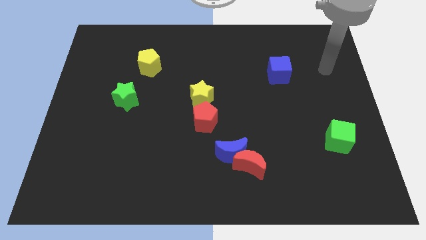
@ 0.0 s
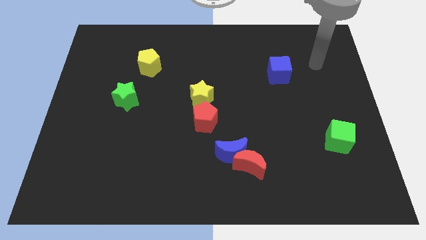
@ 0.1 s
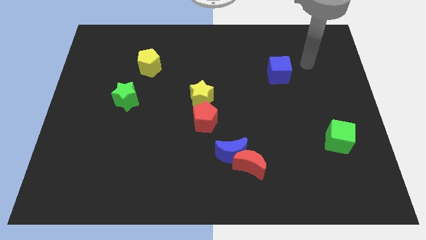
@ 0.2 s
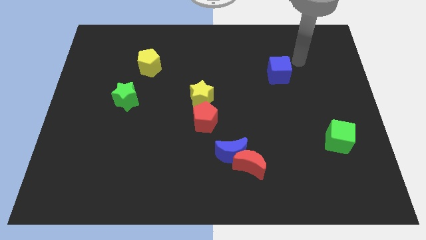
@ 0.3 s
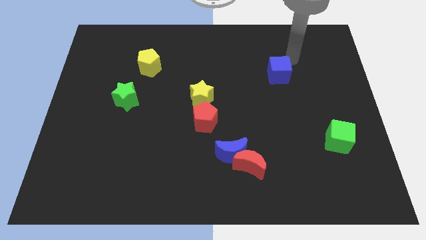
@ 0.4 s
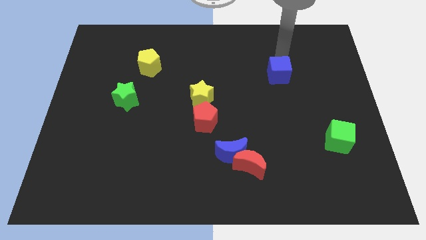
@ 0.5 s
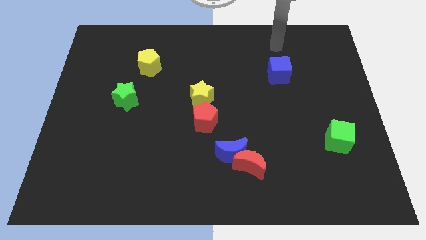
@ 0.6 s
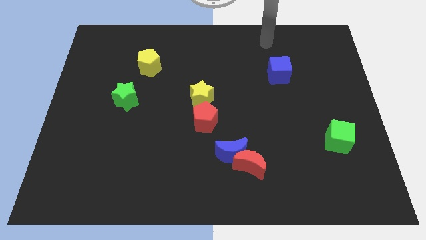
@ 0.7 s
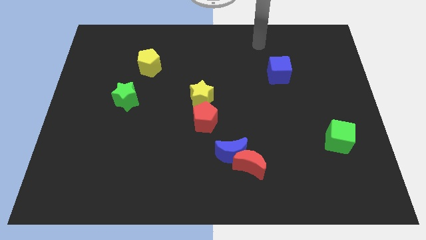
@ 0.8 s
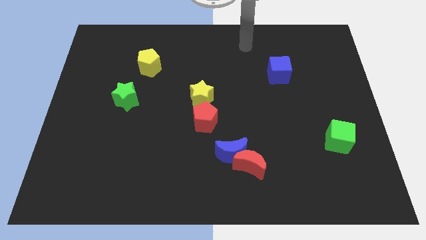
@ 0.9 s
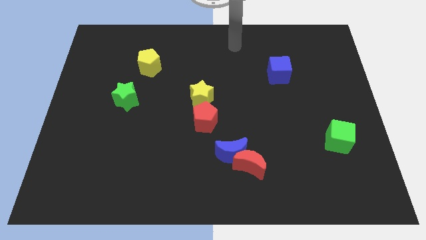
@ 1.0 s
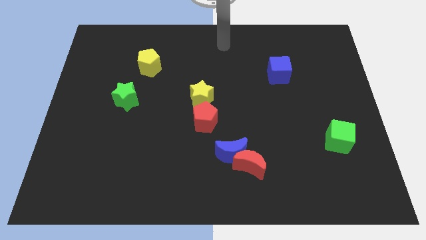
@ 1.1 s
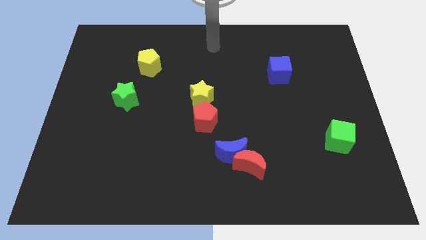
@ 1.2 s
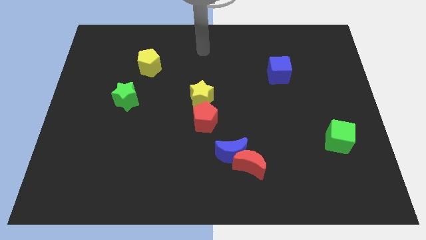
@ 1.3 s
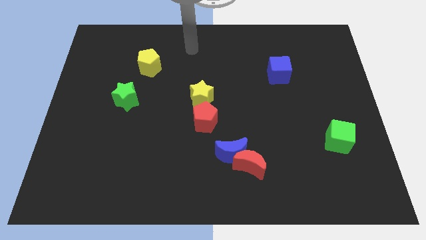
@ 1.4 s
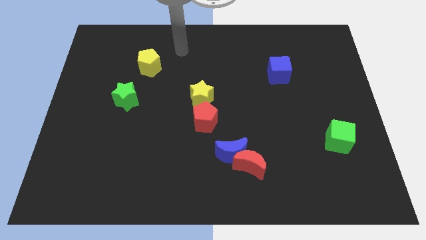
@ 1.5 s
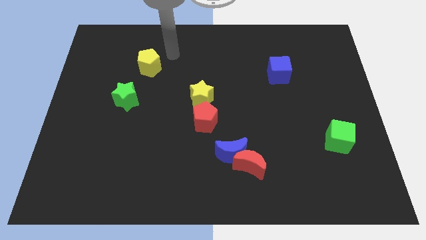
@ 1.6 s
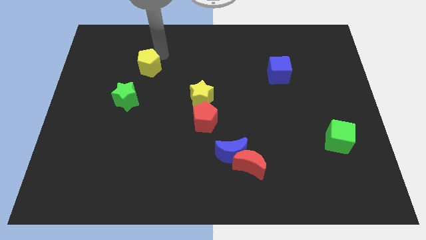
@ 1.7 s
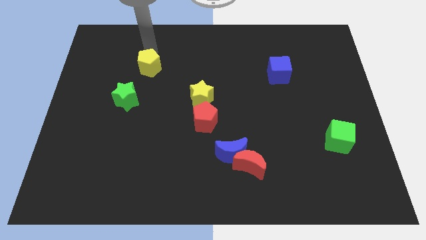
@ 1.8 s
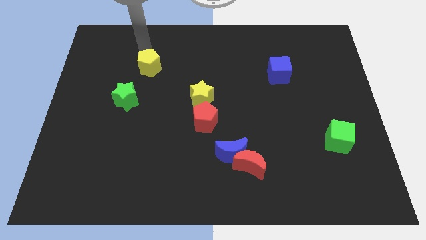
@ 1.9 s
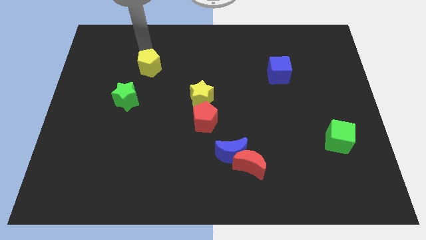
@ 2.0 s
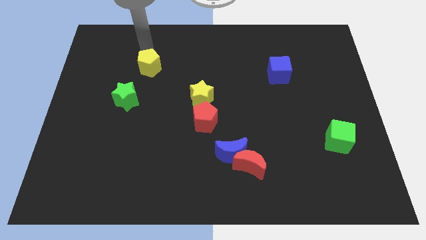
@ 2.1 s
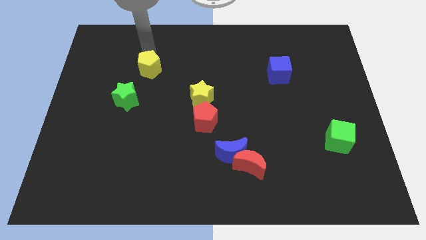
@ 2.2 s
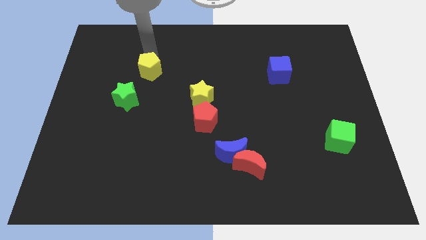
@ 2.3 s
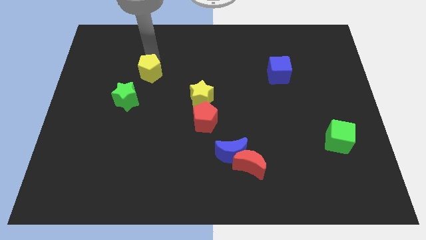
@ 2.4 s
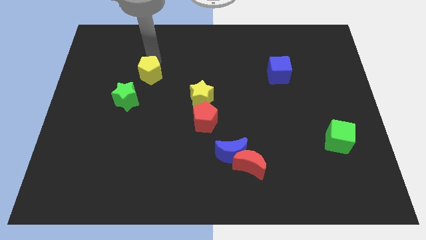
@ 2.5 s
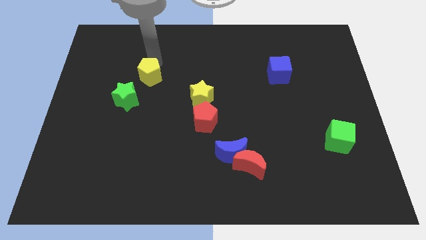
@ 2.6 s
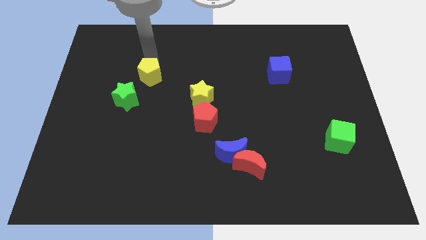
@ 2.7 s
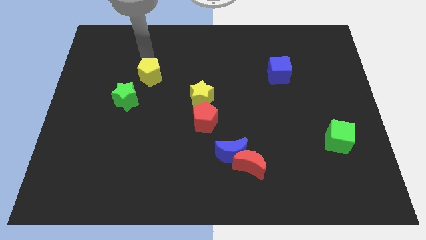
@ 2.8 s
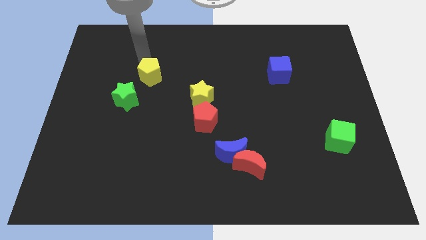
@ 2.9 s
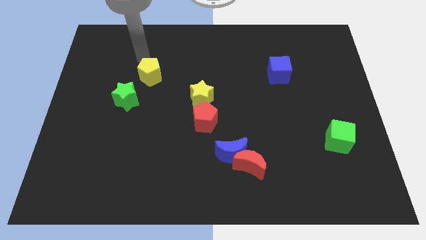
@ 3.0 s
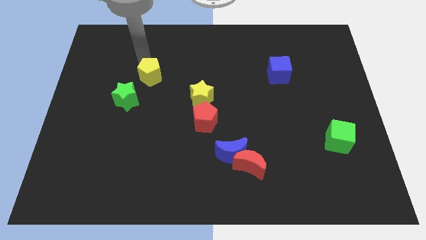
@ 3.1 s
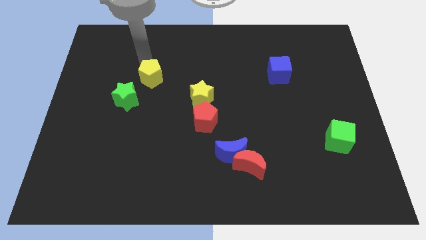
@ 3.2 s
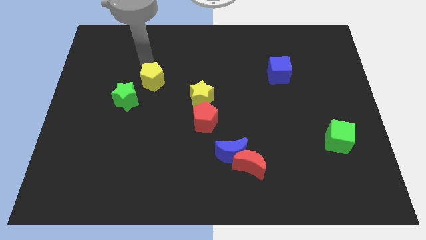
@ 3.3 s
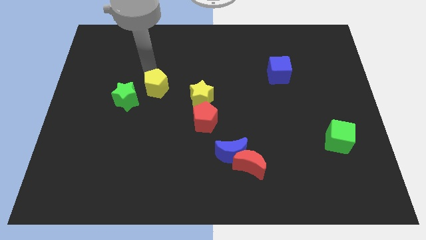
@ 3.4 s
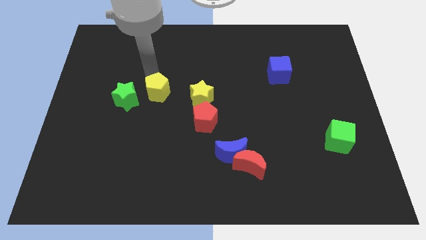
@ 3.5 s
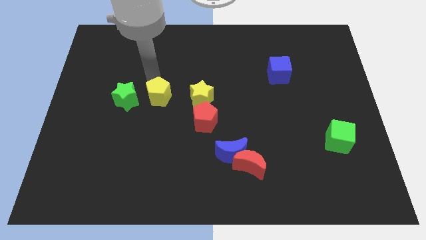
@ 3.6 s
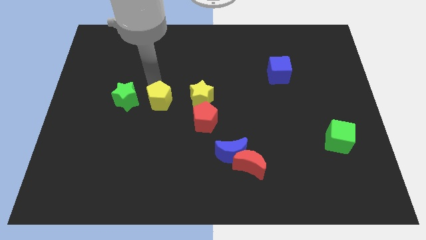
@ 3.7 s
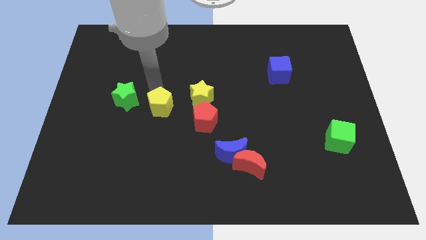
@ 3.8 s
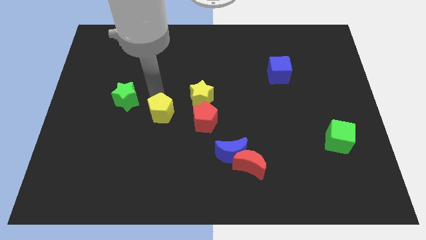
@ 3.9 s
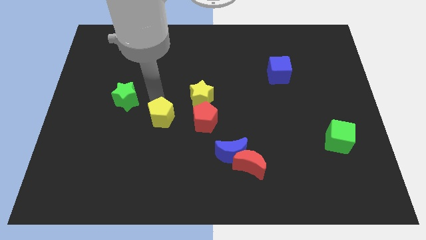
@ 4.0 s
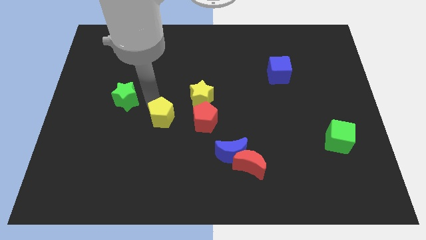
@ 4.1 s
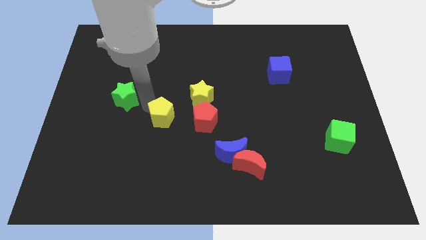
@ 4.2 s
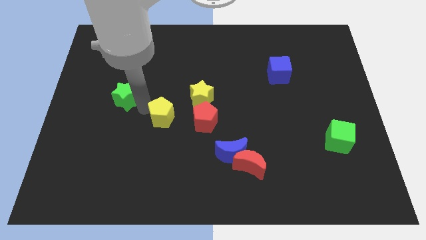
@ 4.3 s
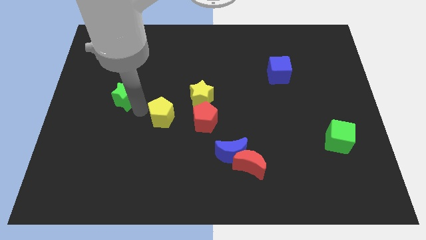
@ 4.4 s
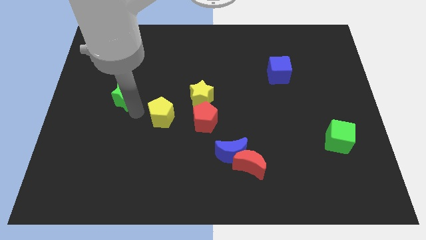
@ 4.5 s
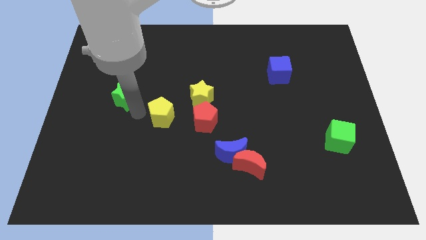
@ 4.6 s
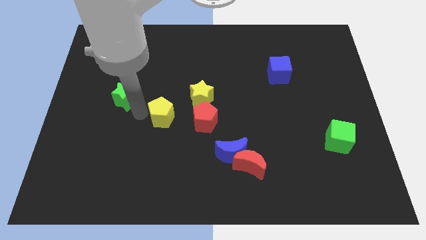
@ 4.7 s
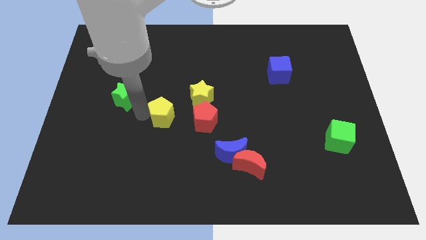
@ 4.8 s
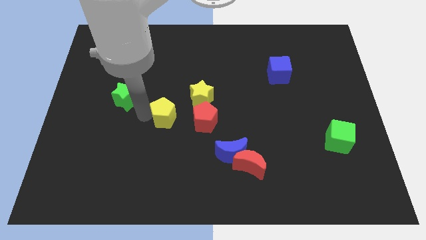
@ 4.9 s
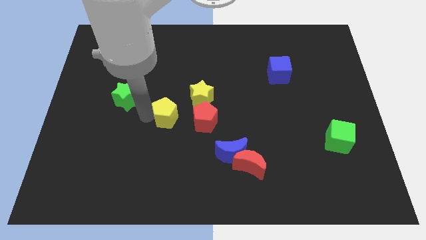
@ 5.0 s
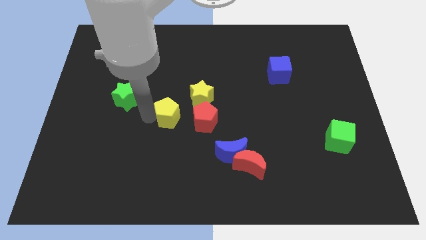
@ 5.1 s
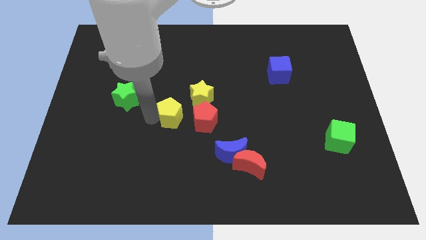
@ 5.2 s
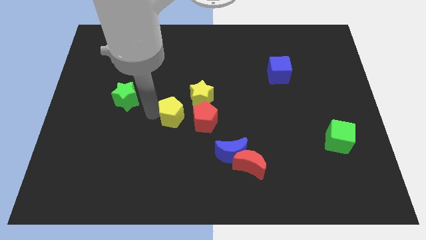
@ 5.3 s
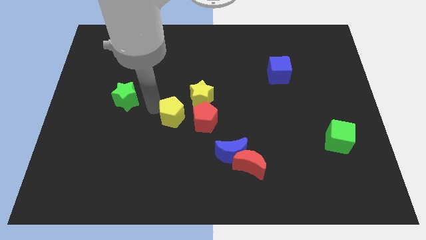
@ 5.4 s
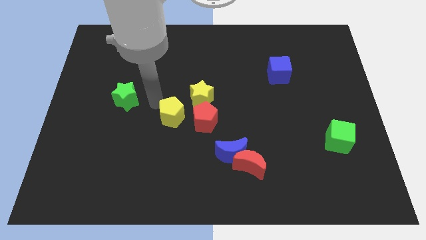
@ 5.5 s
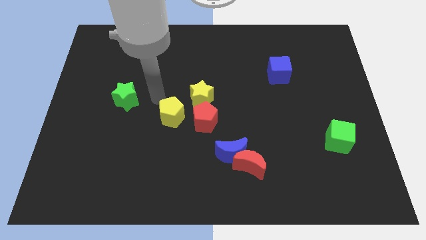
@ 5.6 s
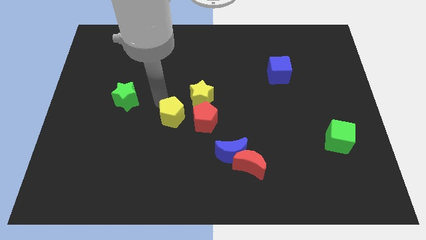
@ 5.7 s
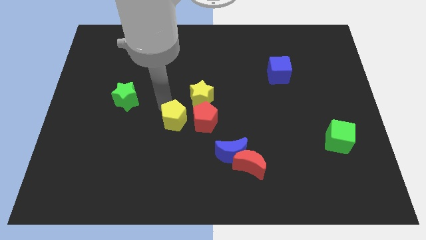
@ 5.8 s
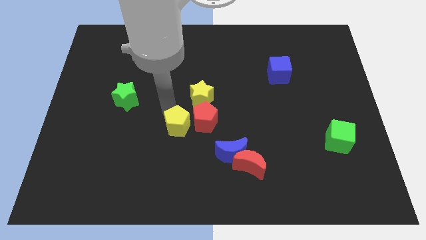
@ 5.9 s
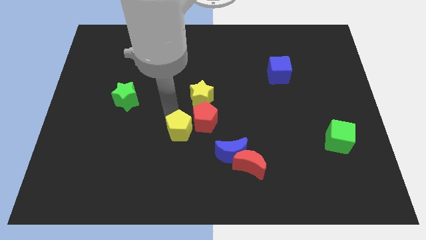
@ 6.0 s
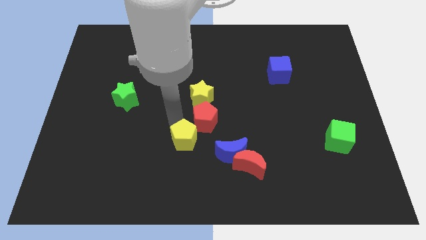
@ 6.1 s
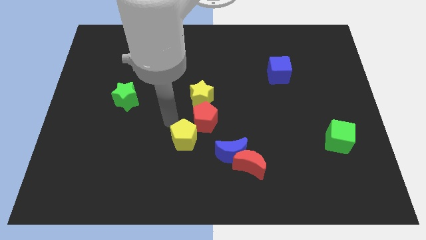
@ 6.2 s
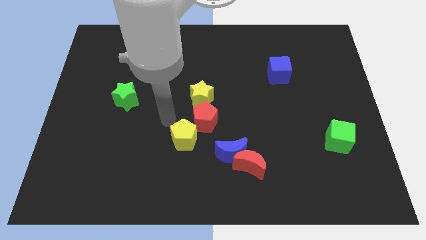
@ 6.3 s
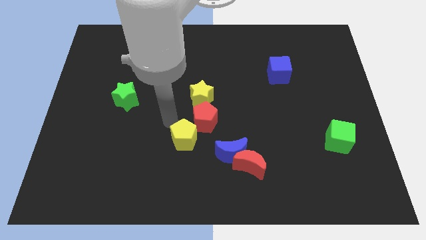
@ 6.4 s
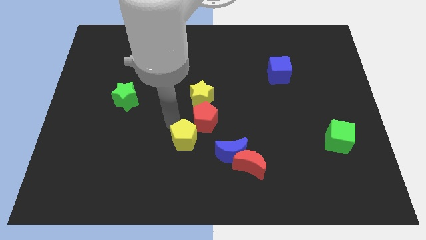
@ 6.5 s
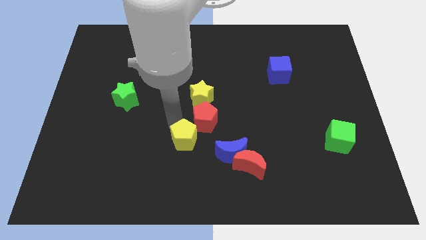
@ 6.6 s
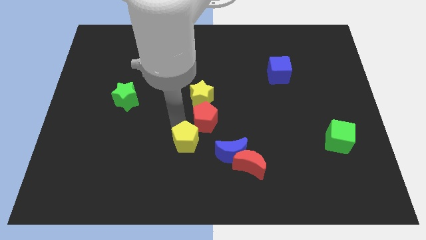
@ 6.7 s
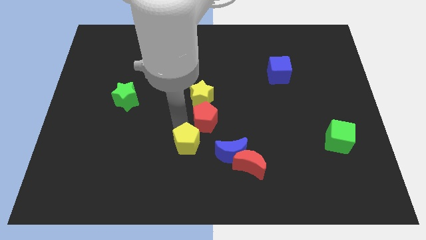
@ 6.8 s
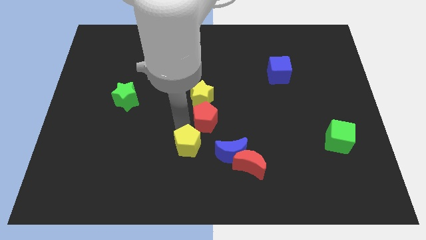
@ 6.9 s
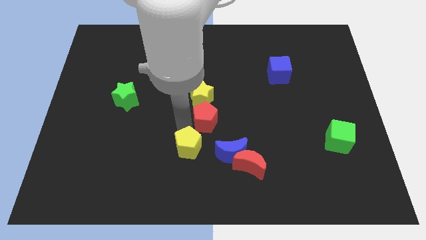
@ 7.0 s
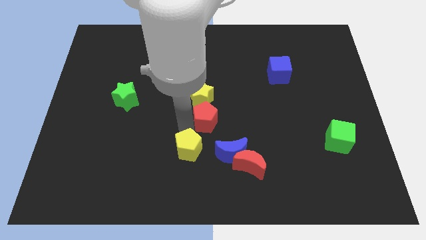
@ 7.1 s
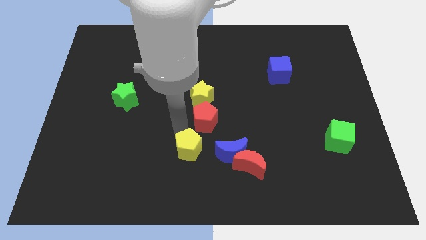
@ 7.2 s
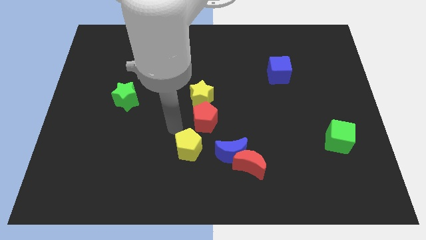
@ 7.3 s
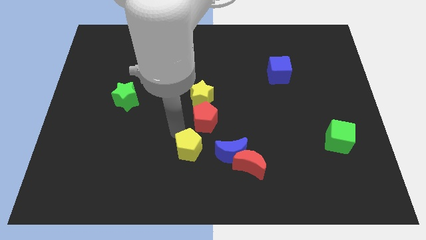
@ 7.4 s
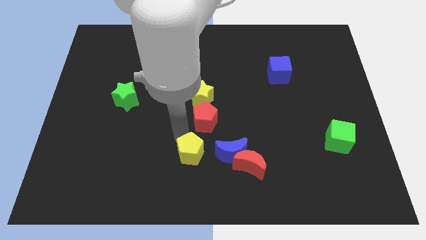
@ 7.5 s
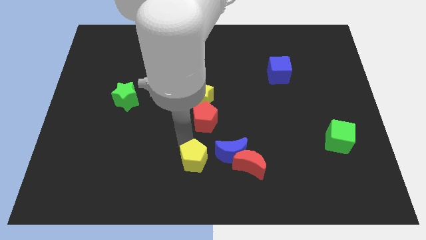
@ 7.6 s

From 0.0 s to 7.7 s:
slide the yellow pentagon to the bottom
